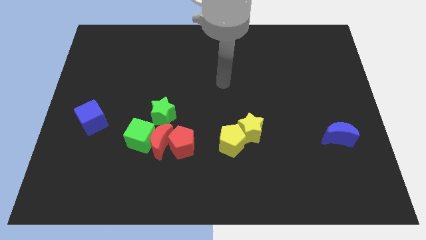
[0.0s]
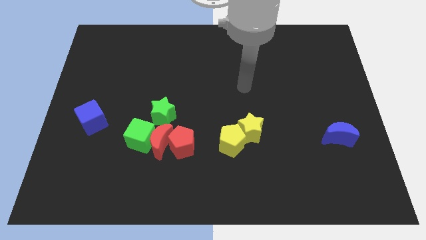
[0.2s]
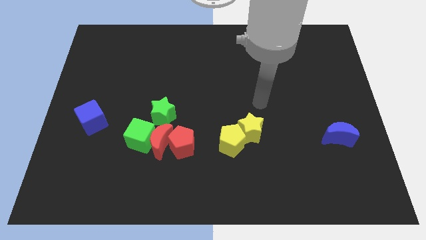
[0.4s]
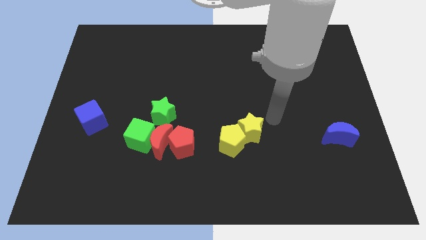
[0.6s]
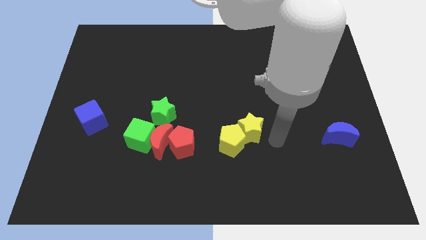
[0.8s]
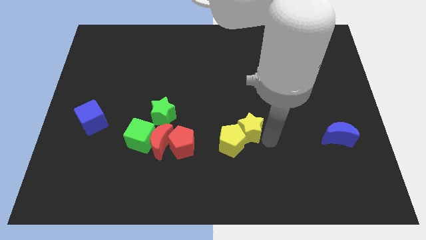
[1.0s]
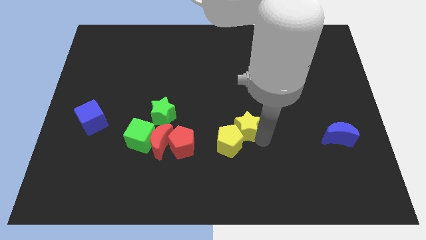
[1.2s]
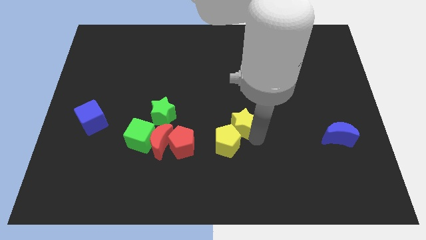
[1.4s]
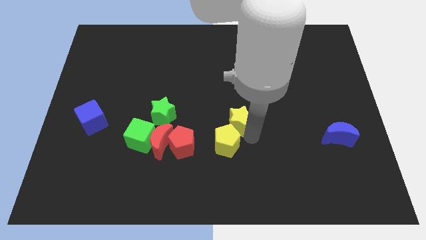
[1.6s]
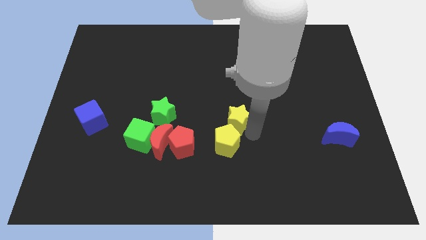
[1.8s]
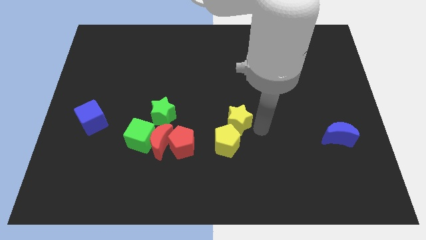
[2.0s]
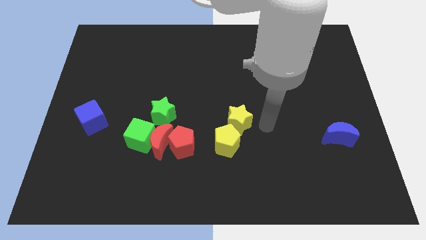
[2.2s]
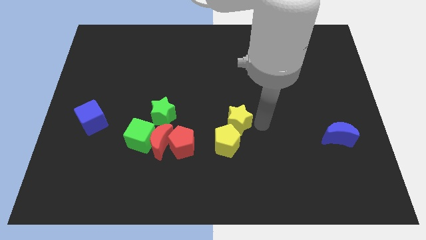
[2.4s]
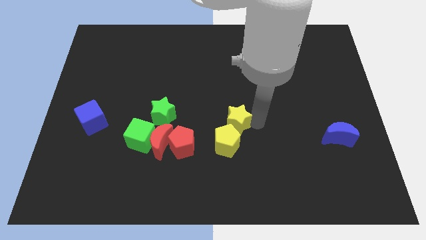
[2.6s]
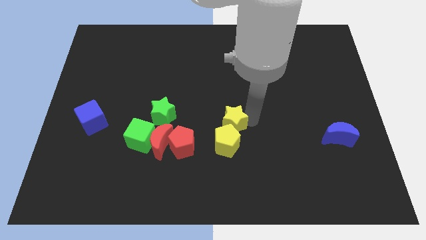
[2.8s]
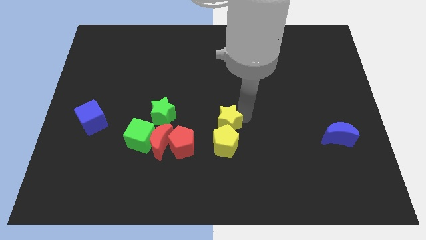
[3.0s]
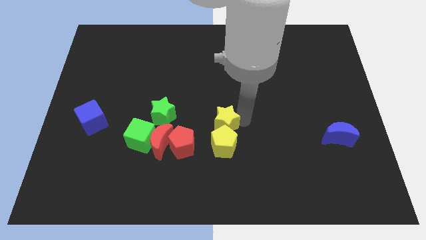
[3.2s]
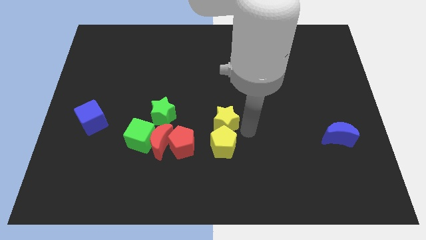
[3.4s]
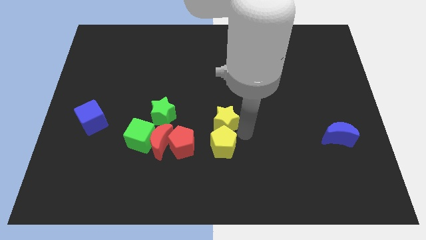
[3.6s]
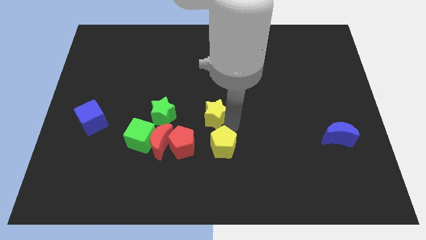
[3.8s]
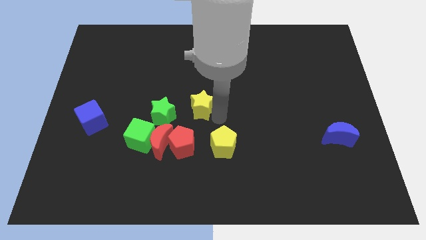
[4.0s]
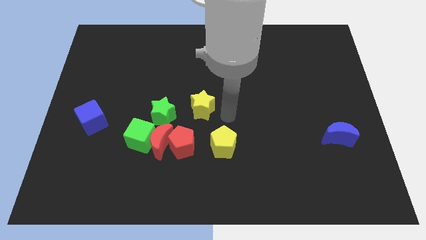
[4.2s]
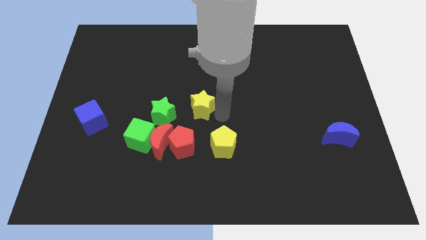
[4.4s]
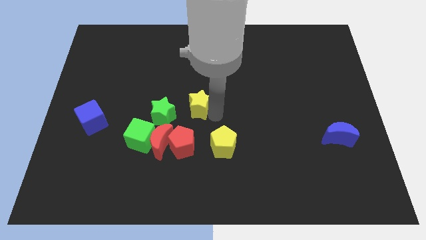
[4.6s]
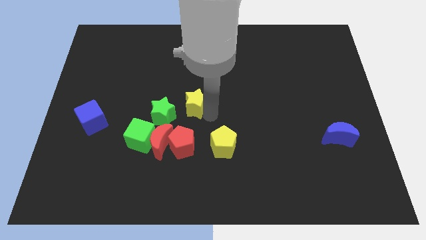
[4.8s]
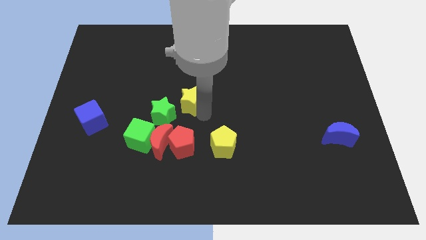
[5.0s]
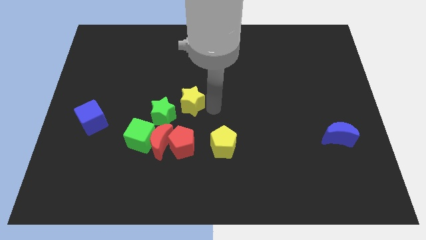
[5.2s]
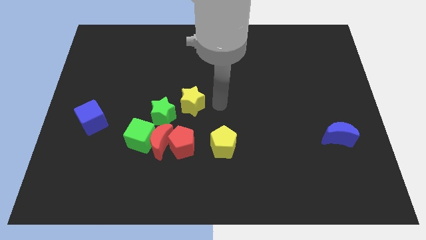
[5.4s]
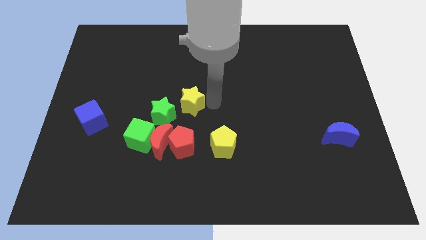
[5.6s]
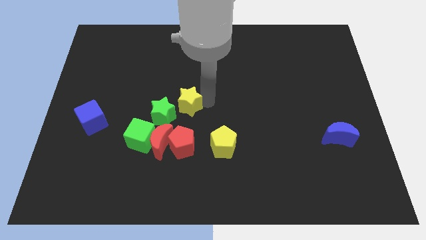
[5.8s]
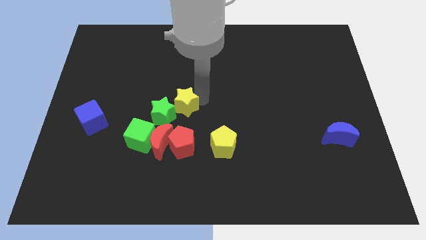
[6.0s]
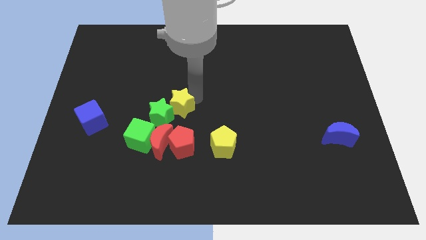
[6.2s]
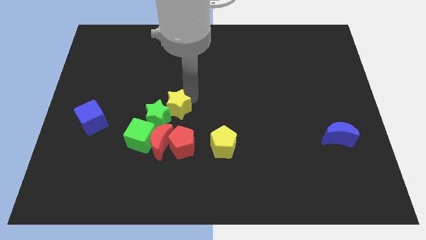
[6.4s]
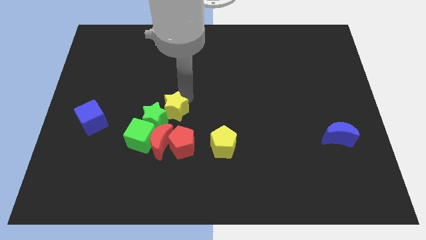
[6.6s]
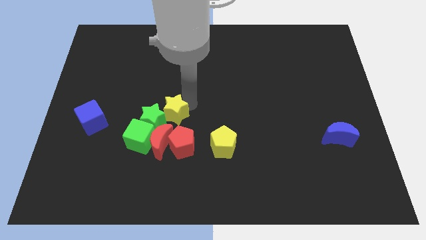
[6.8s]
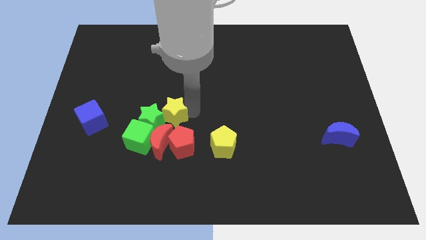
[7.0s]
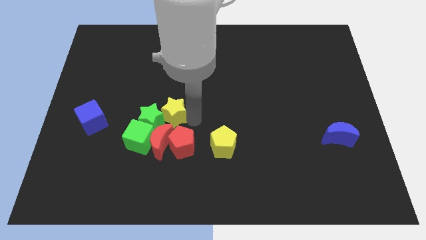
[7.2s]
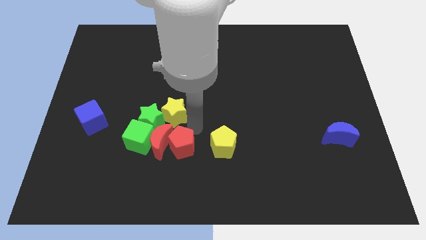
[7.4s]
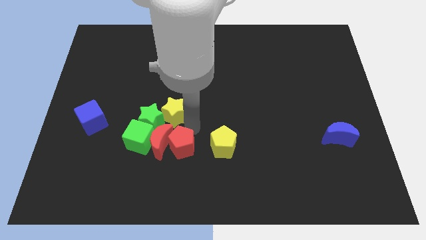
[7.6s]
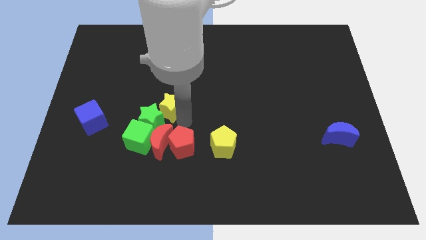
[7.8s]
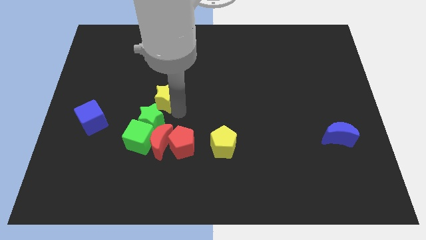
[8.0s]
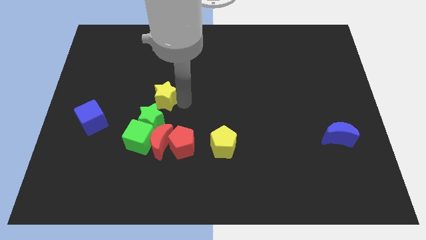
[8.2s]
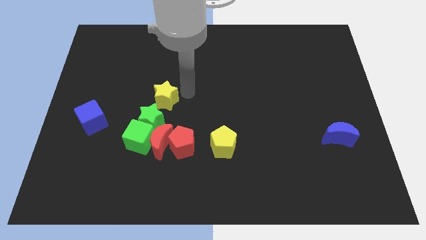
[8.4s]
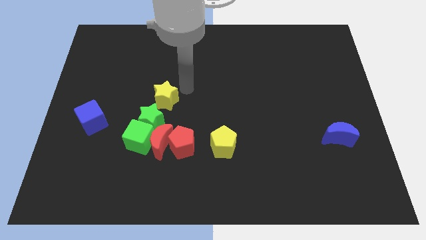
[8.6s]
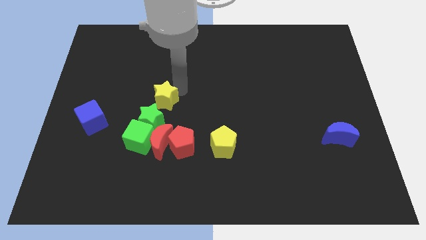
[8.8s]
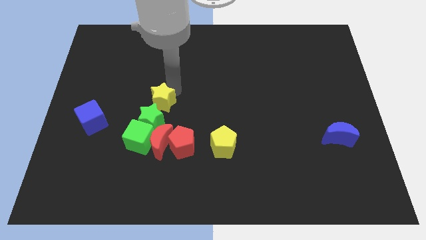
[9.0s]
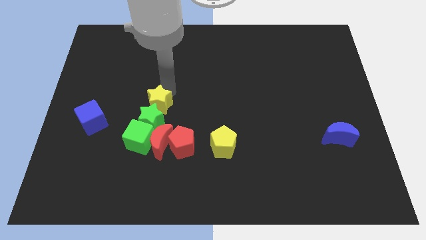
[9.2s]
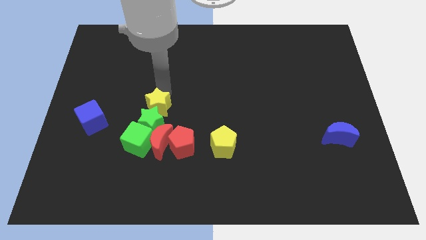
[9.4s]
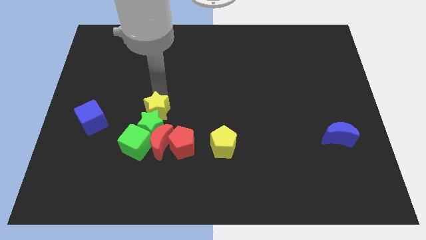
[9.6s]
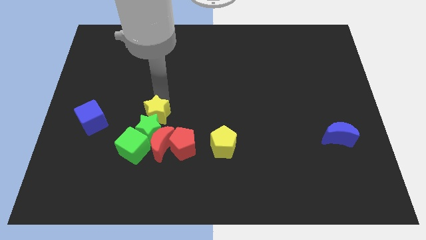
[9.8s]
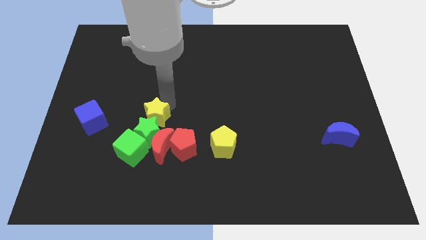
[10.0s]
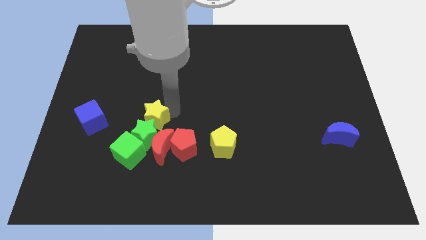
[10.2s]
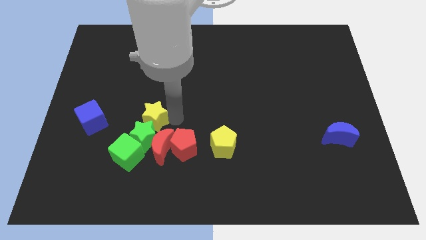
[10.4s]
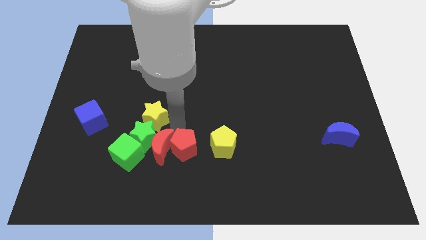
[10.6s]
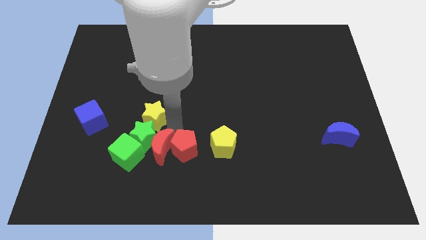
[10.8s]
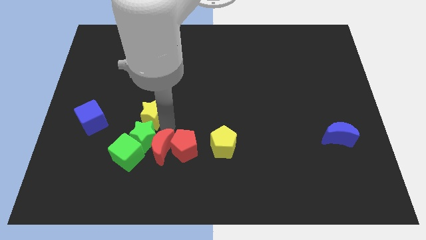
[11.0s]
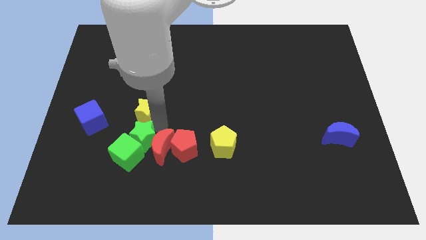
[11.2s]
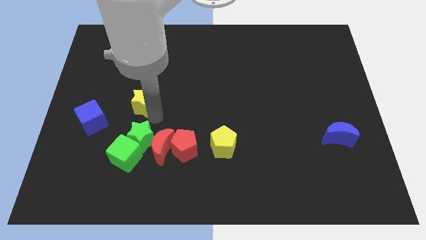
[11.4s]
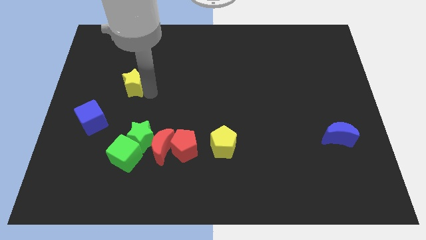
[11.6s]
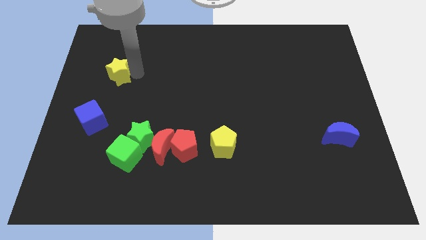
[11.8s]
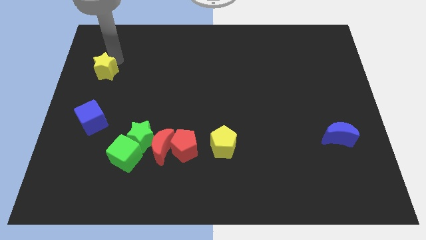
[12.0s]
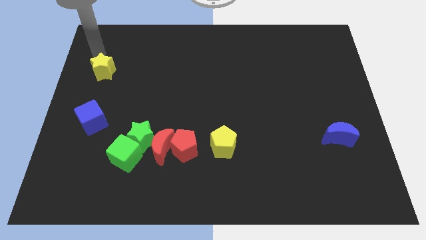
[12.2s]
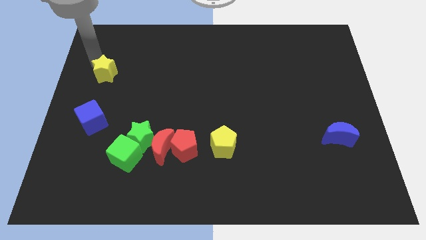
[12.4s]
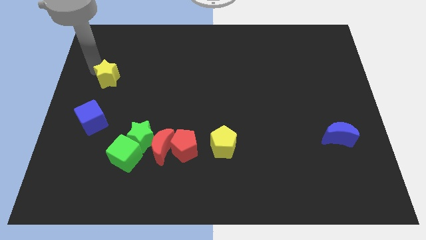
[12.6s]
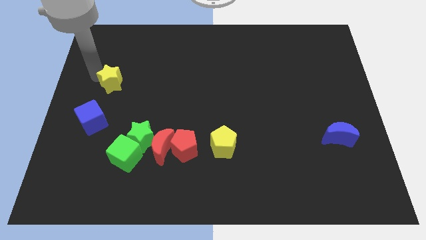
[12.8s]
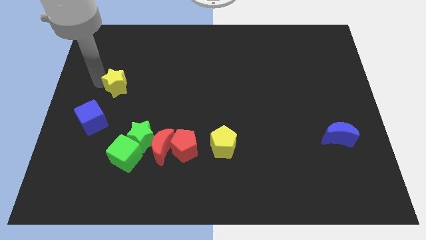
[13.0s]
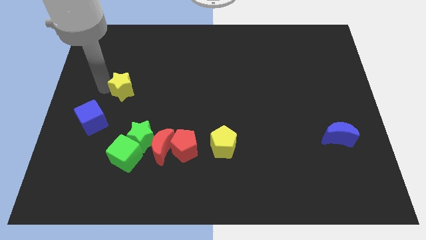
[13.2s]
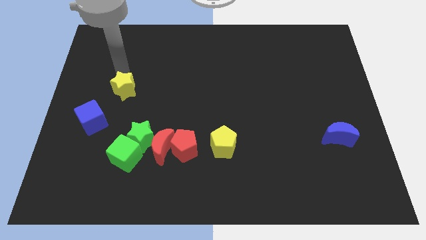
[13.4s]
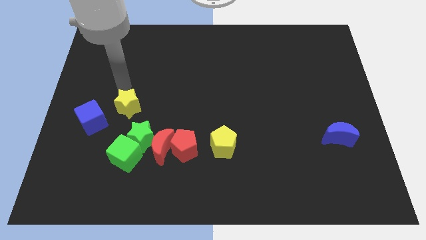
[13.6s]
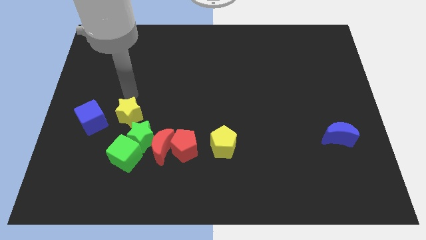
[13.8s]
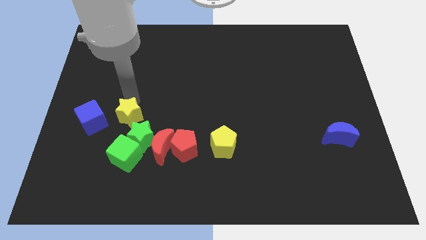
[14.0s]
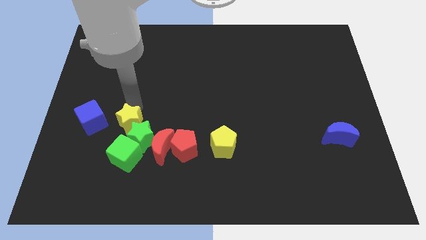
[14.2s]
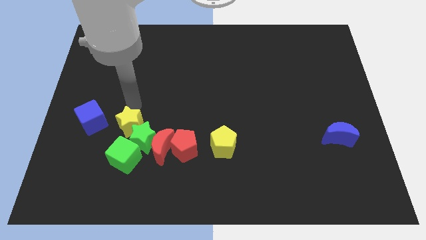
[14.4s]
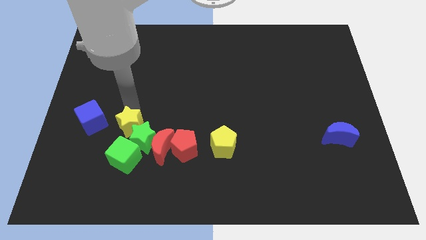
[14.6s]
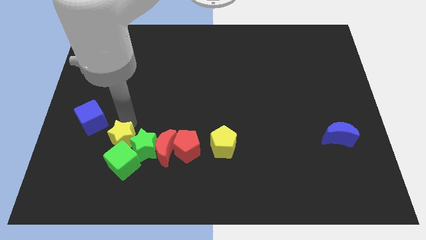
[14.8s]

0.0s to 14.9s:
push the yellow star to the green cube

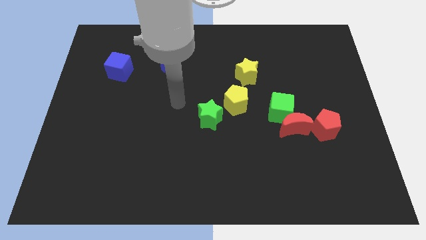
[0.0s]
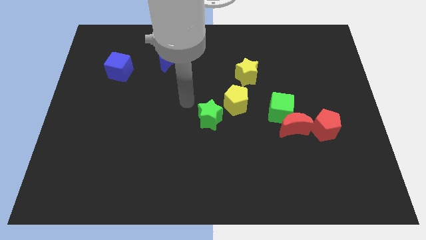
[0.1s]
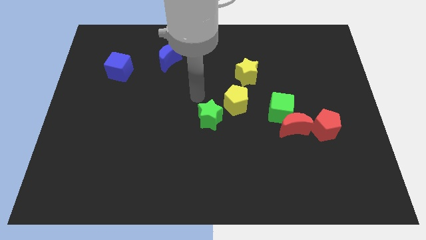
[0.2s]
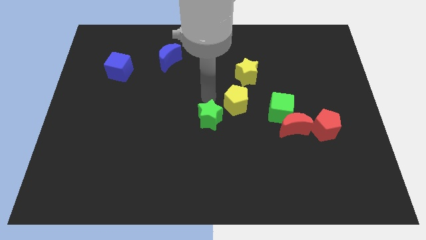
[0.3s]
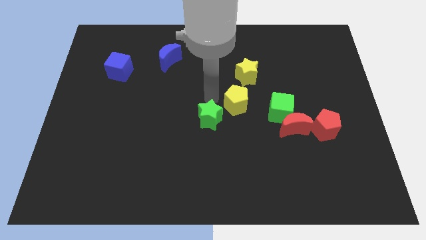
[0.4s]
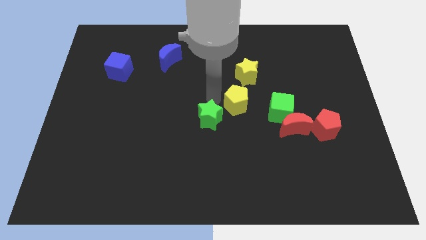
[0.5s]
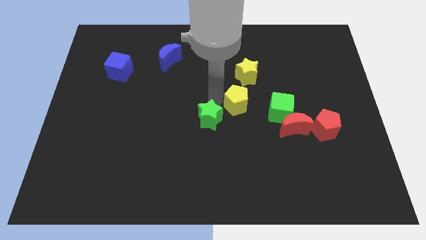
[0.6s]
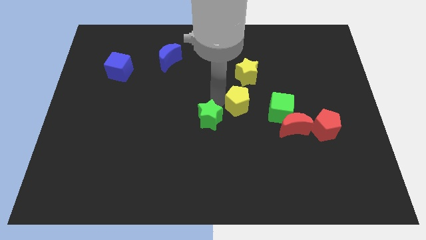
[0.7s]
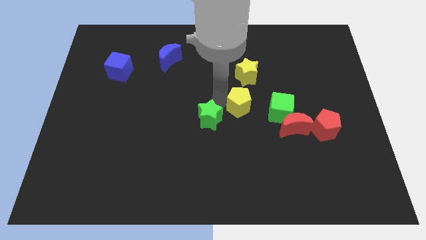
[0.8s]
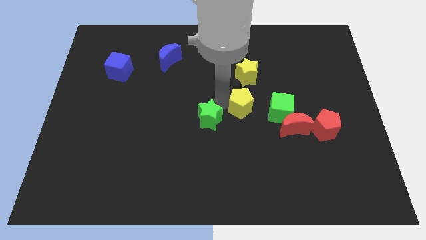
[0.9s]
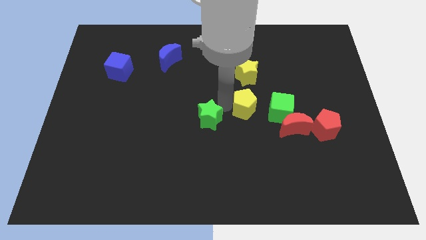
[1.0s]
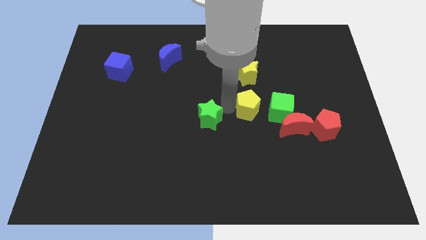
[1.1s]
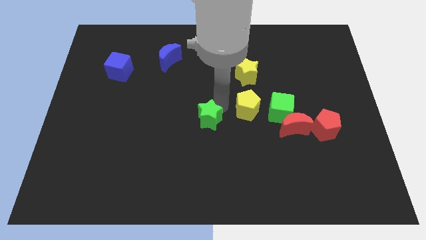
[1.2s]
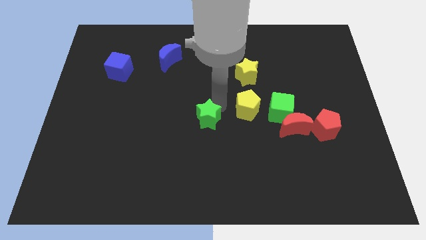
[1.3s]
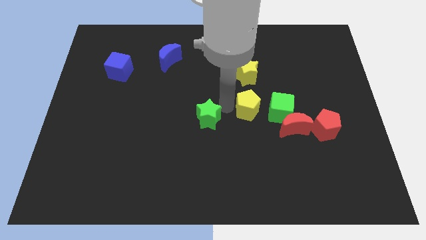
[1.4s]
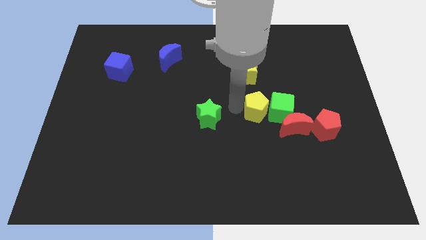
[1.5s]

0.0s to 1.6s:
move the yellow pentagon towards the green cube
